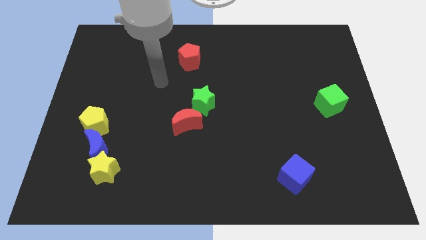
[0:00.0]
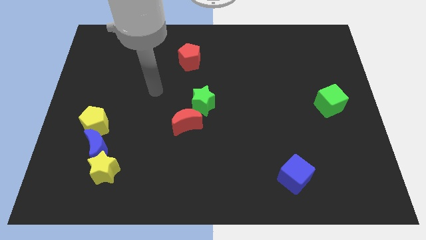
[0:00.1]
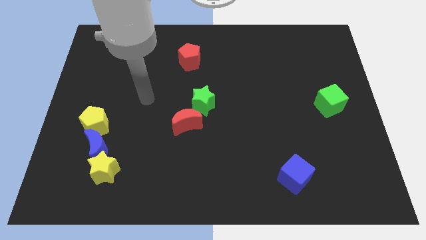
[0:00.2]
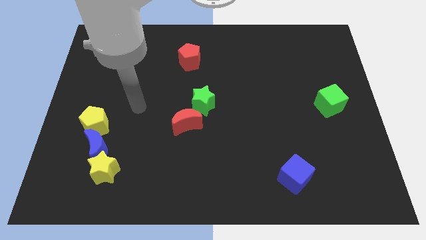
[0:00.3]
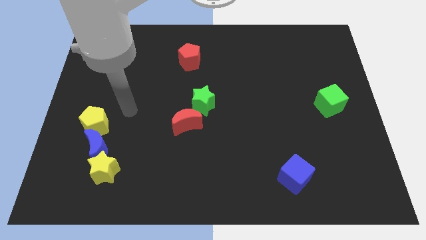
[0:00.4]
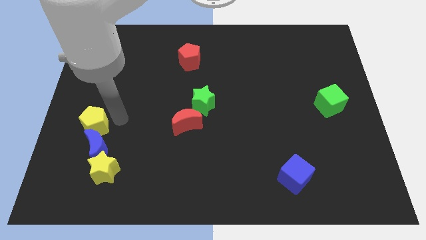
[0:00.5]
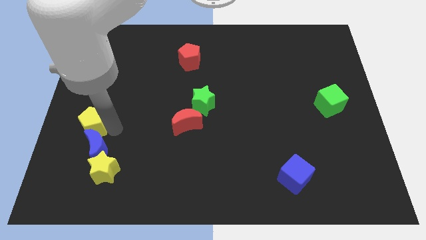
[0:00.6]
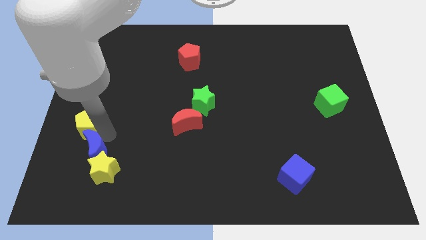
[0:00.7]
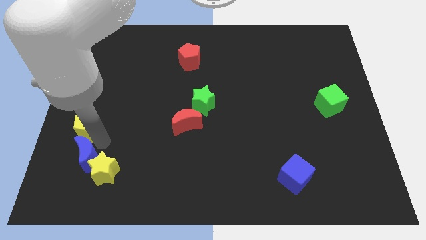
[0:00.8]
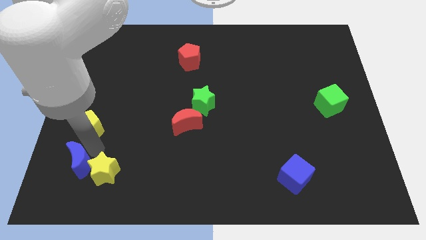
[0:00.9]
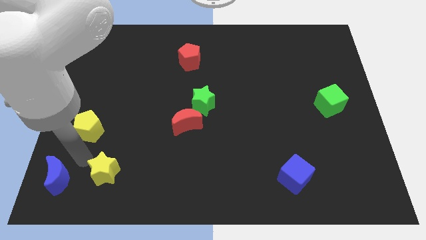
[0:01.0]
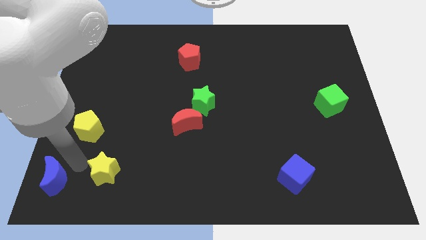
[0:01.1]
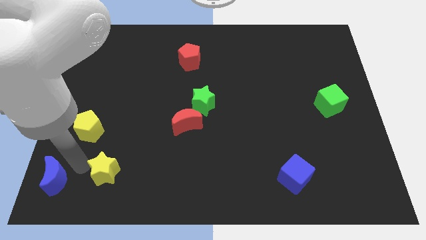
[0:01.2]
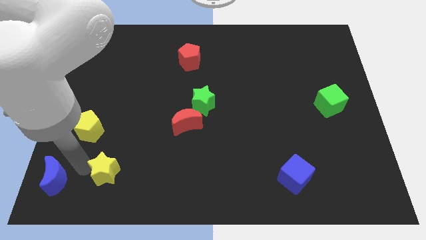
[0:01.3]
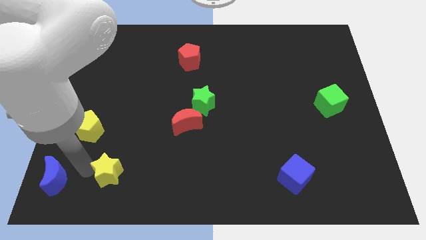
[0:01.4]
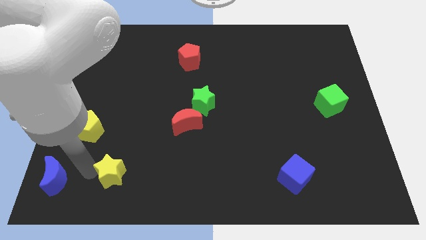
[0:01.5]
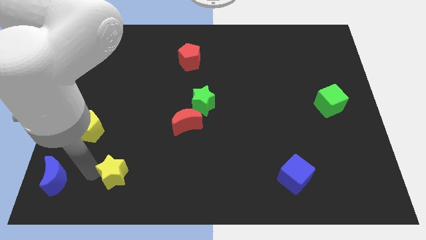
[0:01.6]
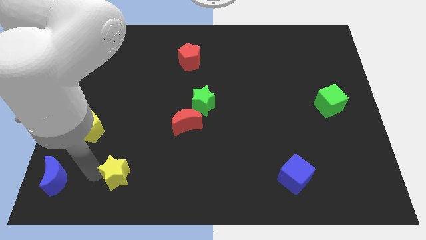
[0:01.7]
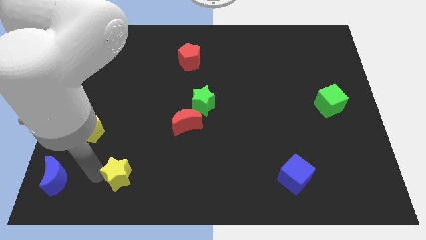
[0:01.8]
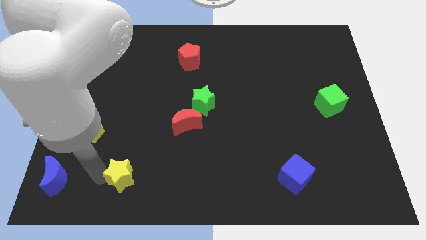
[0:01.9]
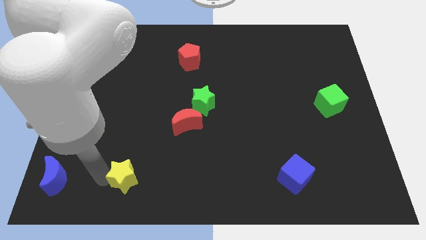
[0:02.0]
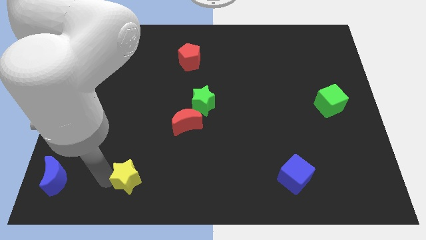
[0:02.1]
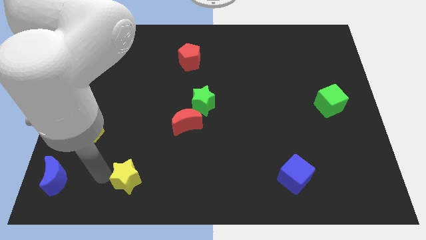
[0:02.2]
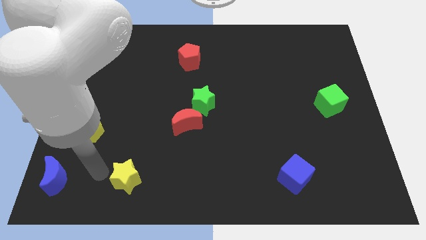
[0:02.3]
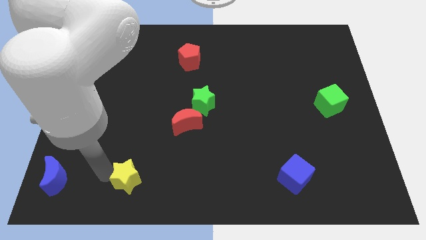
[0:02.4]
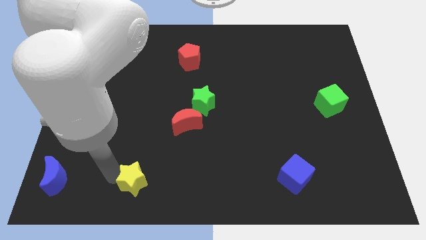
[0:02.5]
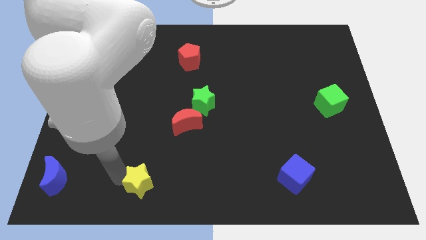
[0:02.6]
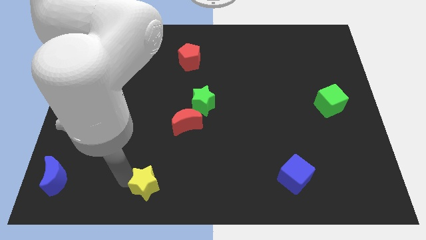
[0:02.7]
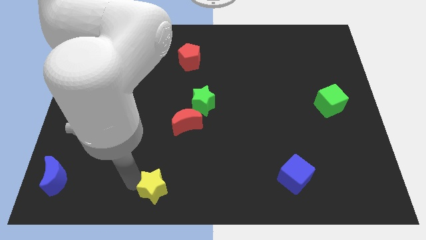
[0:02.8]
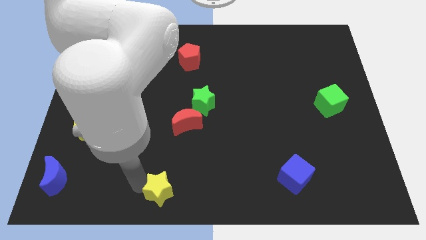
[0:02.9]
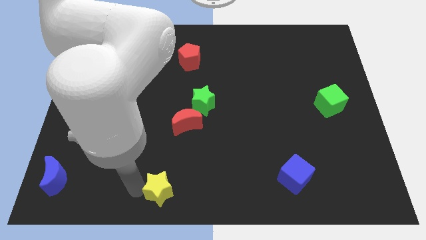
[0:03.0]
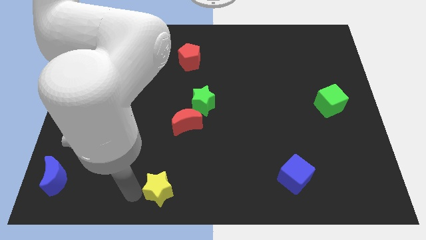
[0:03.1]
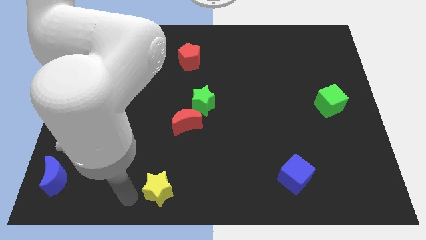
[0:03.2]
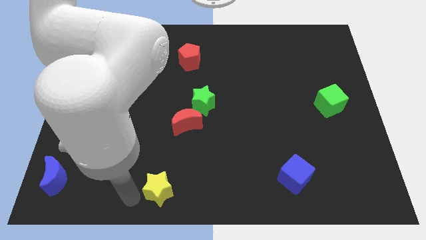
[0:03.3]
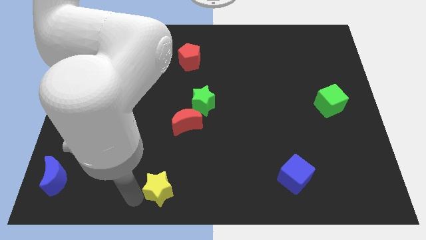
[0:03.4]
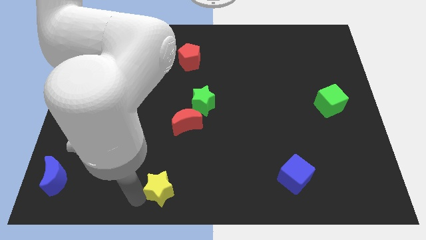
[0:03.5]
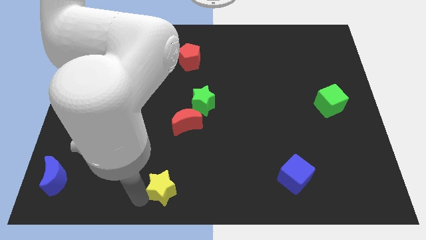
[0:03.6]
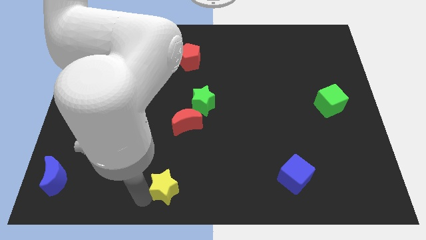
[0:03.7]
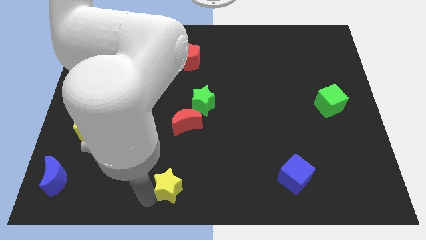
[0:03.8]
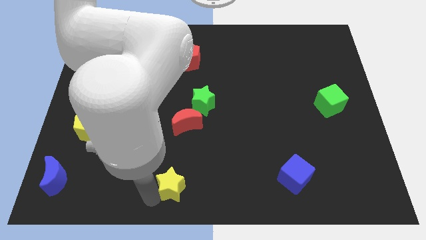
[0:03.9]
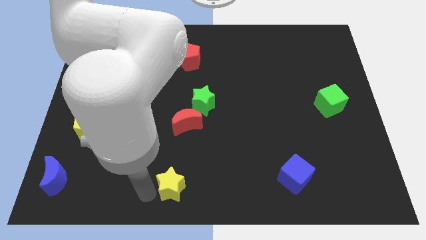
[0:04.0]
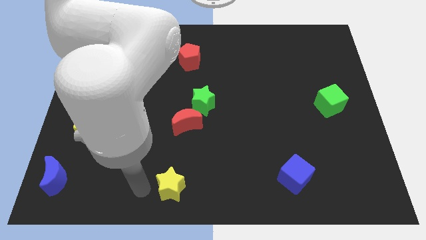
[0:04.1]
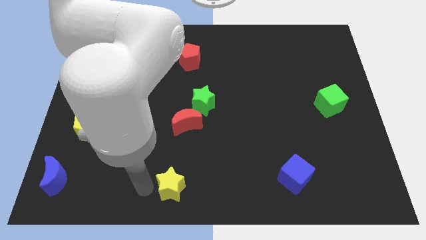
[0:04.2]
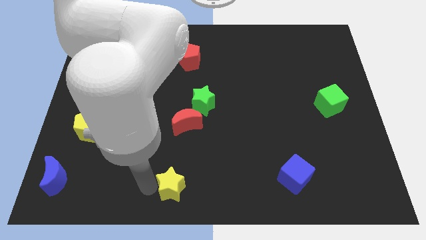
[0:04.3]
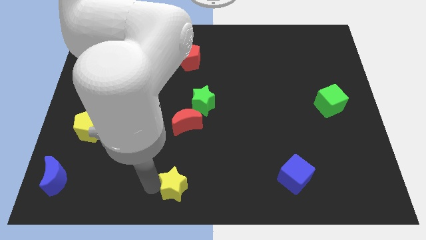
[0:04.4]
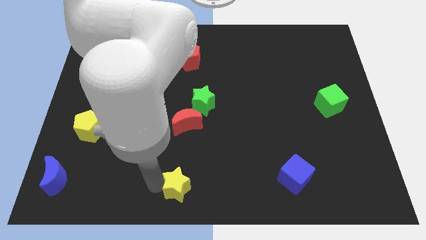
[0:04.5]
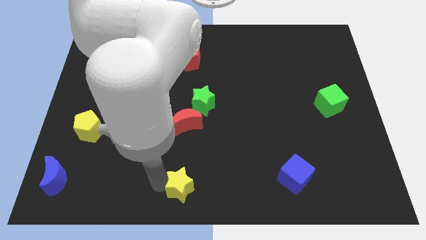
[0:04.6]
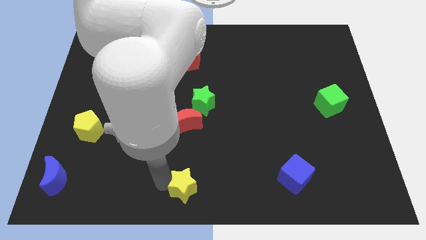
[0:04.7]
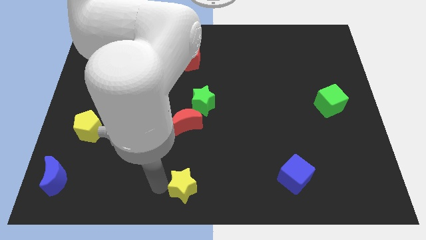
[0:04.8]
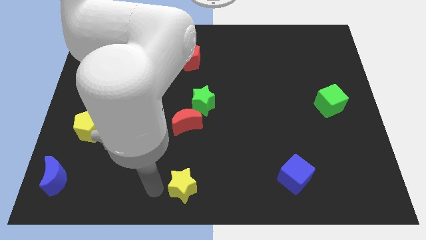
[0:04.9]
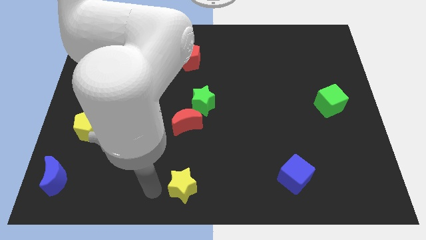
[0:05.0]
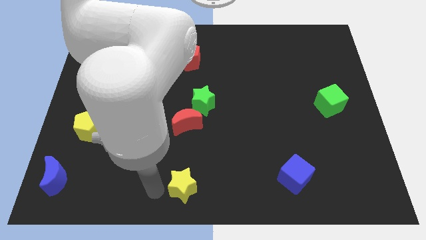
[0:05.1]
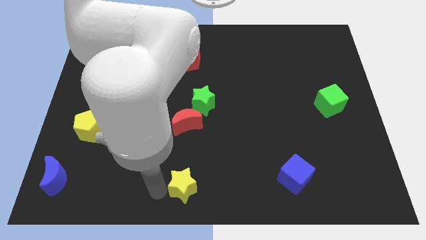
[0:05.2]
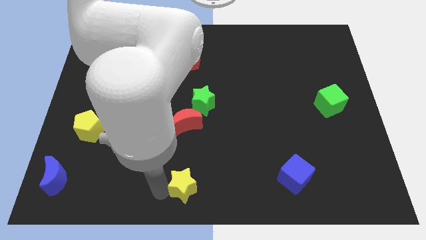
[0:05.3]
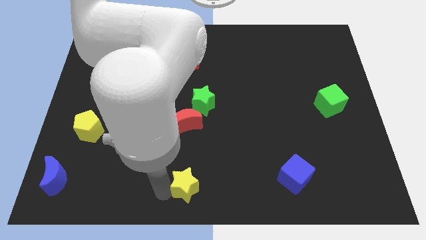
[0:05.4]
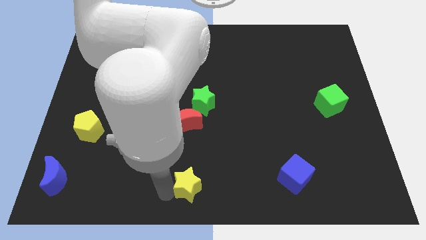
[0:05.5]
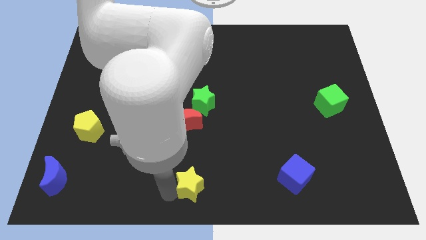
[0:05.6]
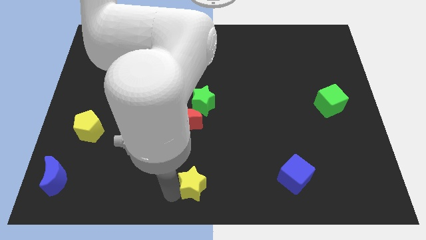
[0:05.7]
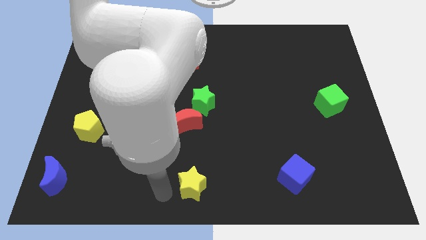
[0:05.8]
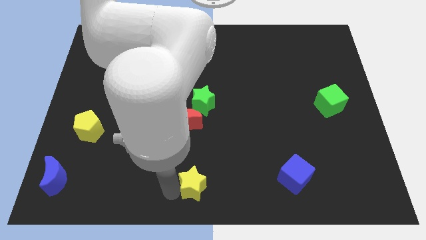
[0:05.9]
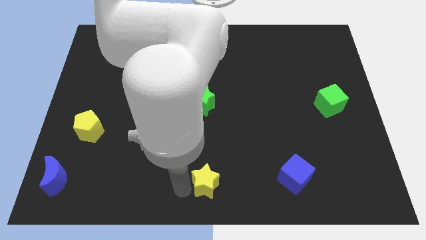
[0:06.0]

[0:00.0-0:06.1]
move the yellow star right

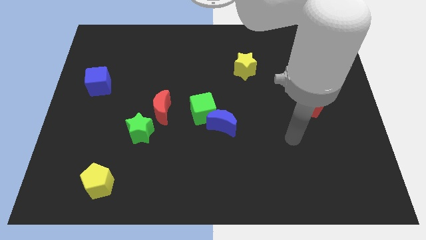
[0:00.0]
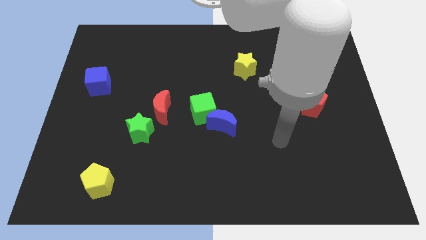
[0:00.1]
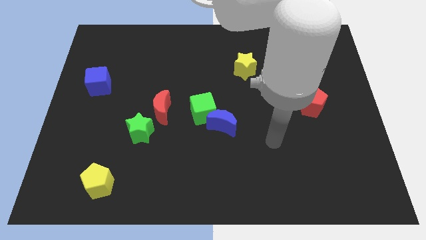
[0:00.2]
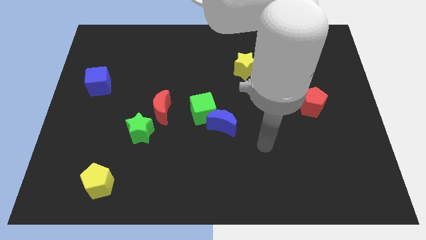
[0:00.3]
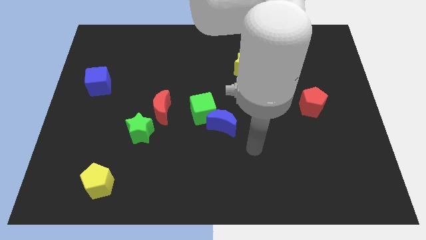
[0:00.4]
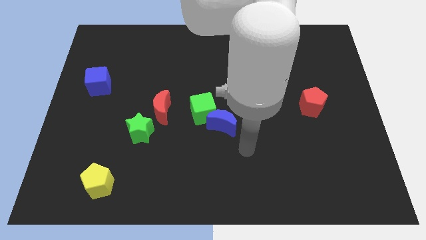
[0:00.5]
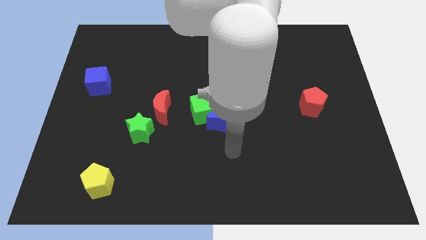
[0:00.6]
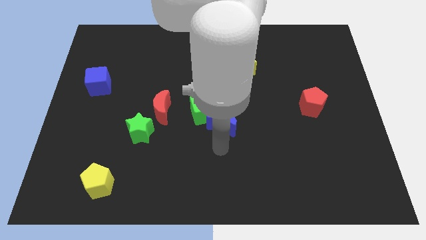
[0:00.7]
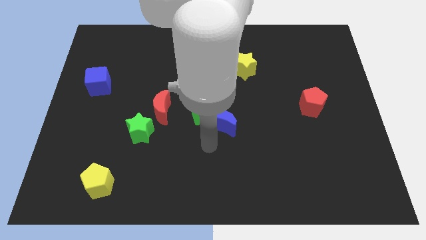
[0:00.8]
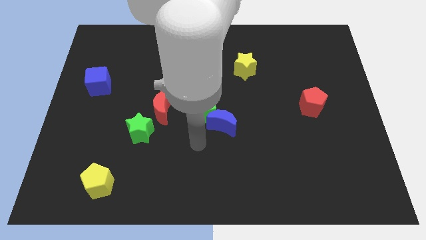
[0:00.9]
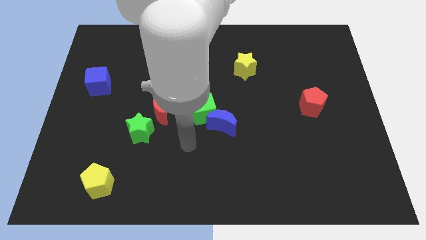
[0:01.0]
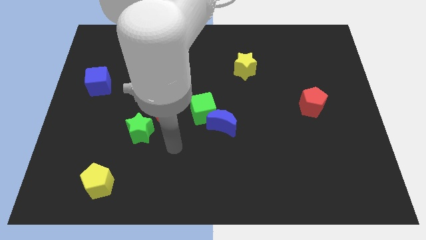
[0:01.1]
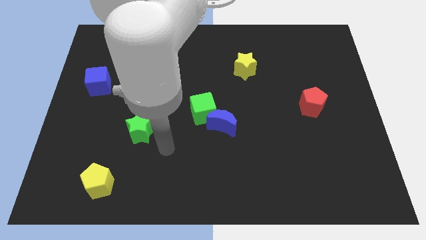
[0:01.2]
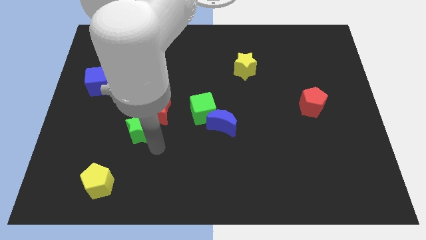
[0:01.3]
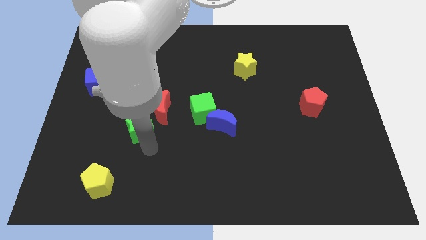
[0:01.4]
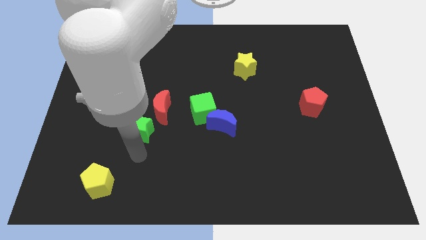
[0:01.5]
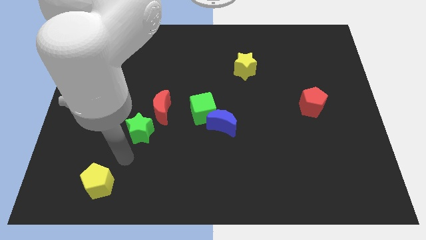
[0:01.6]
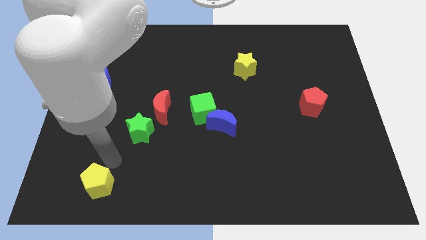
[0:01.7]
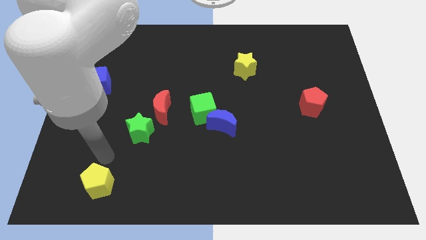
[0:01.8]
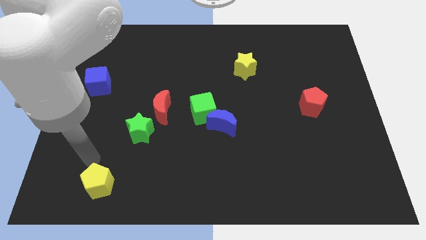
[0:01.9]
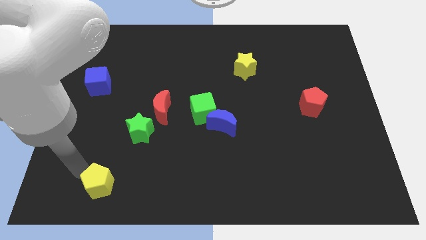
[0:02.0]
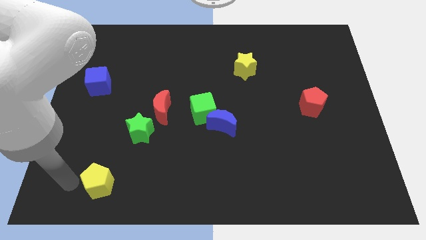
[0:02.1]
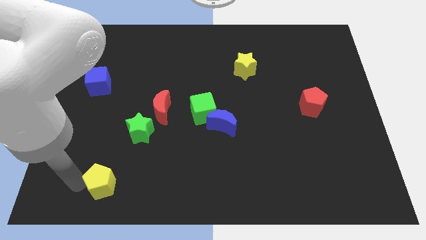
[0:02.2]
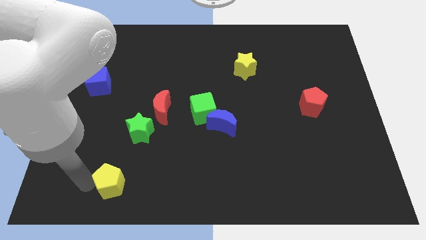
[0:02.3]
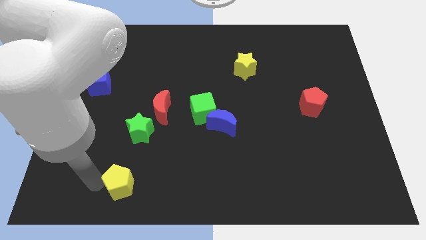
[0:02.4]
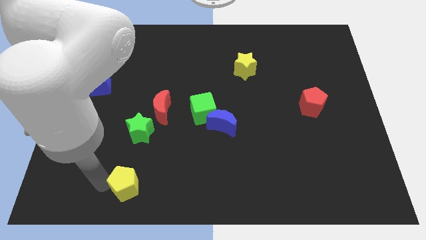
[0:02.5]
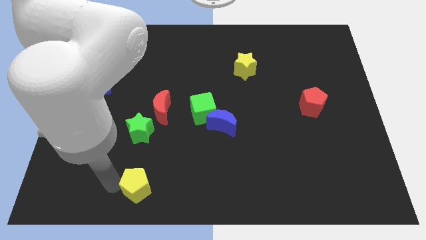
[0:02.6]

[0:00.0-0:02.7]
push the yellow pentagon a bit to the right
